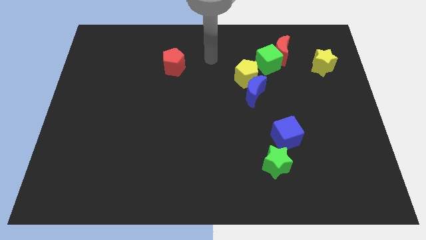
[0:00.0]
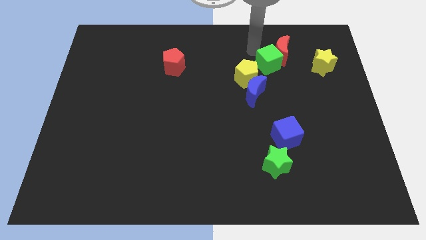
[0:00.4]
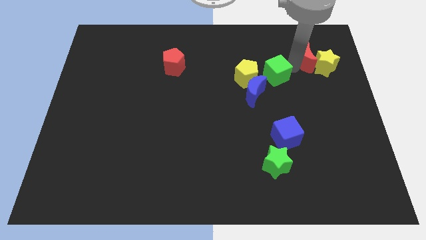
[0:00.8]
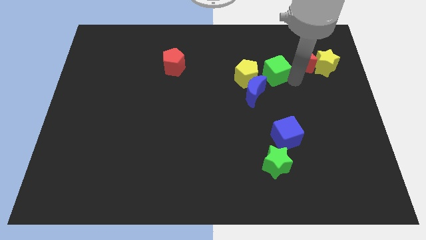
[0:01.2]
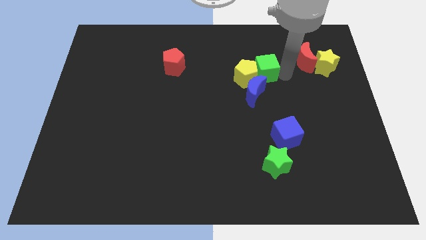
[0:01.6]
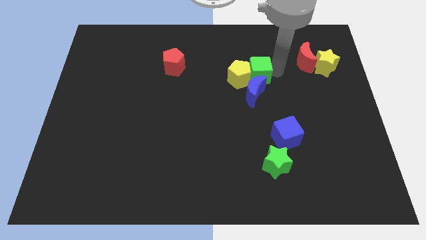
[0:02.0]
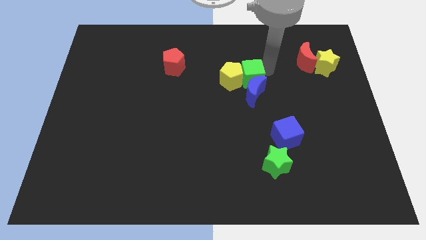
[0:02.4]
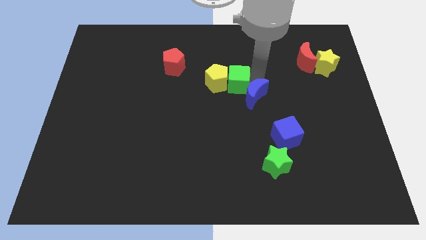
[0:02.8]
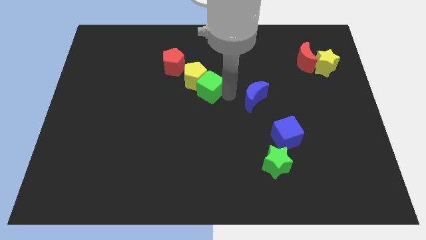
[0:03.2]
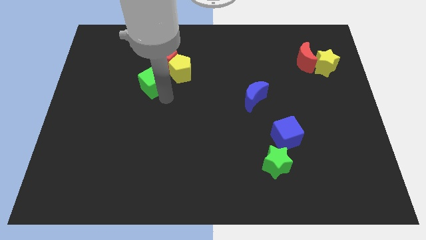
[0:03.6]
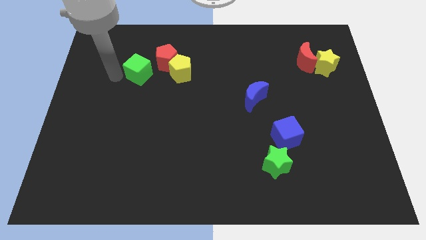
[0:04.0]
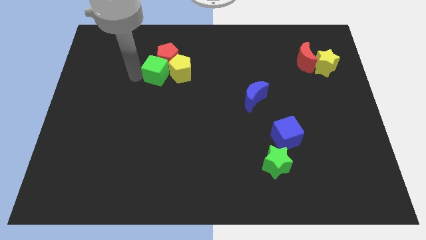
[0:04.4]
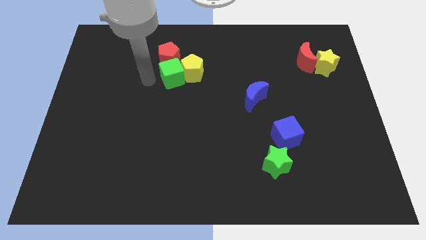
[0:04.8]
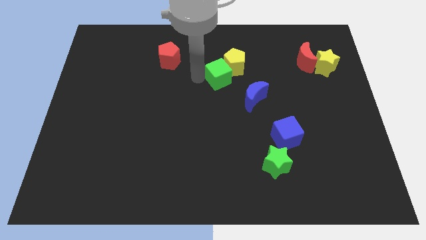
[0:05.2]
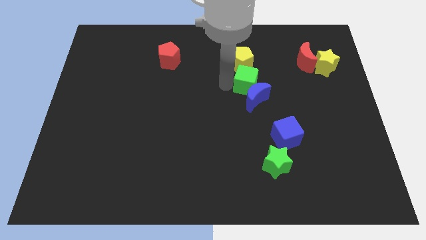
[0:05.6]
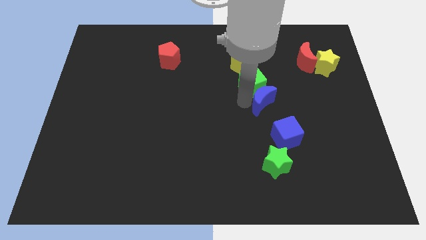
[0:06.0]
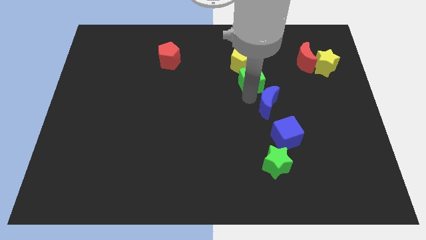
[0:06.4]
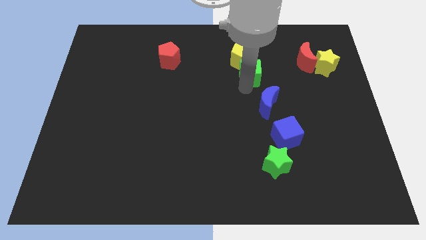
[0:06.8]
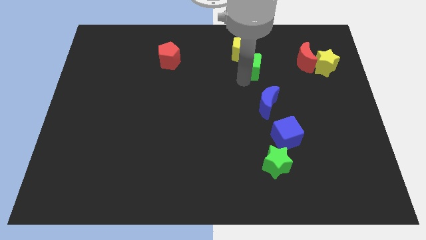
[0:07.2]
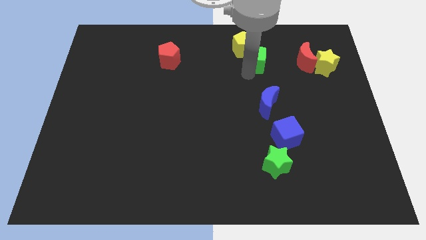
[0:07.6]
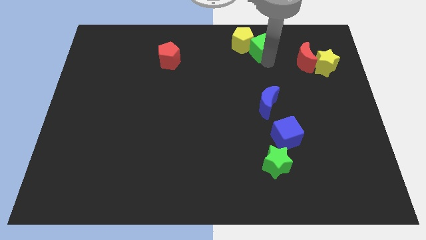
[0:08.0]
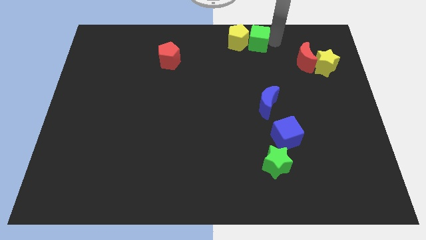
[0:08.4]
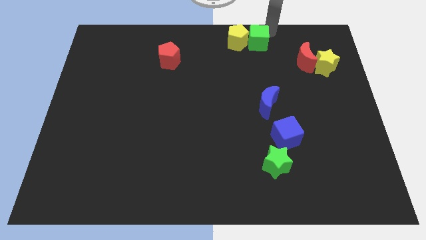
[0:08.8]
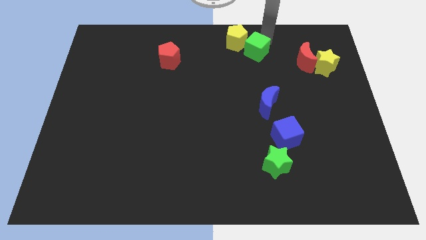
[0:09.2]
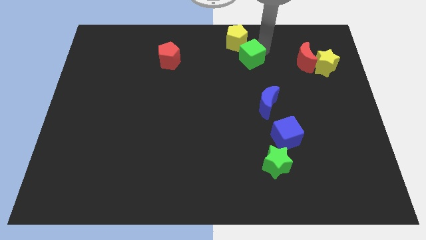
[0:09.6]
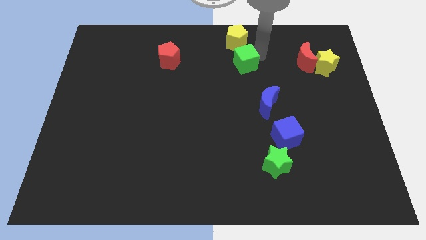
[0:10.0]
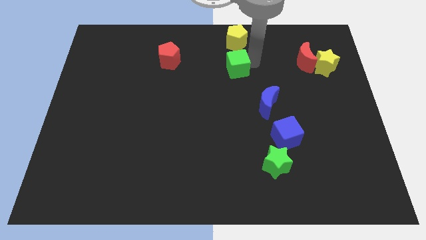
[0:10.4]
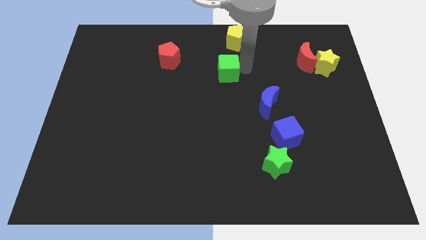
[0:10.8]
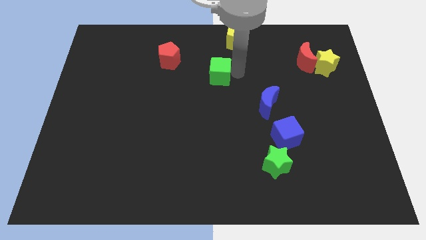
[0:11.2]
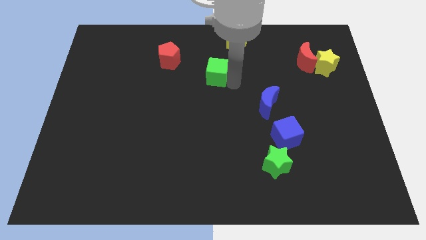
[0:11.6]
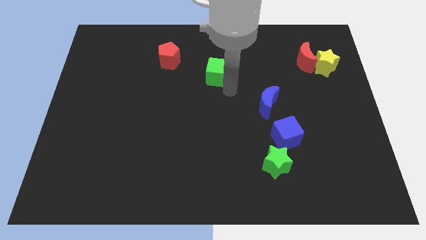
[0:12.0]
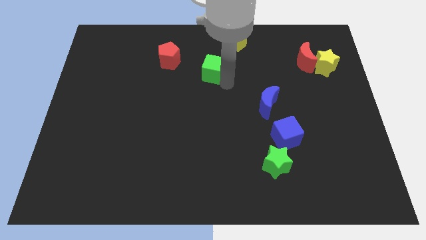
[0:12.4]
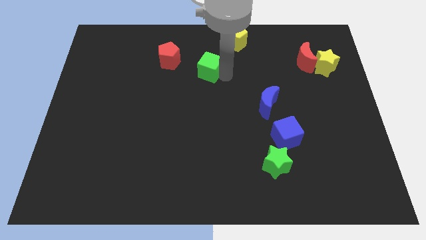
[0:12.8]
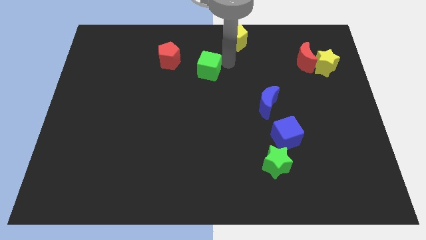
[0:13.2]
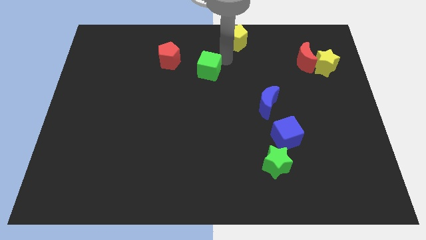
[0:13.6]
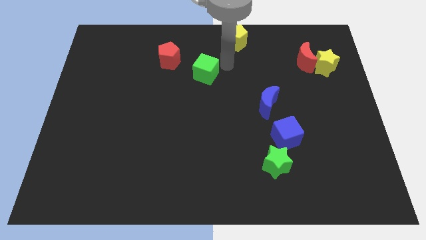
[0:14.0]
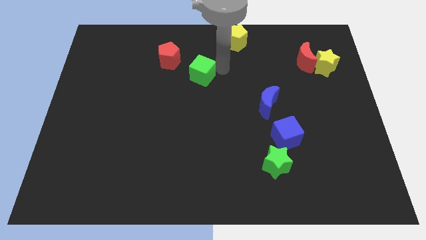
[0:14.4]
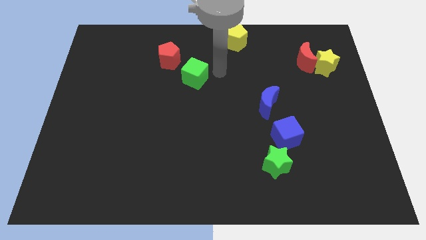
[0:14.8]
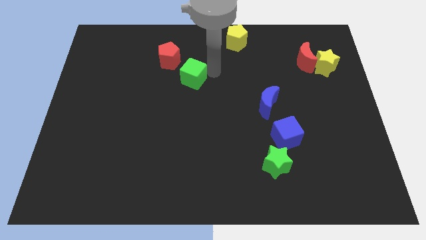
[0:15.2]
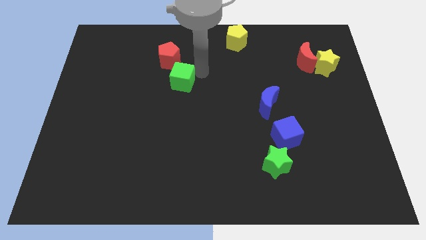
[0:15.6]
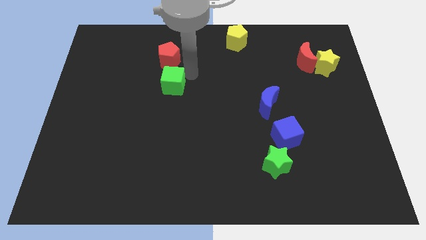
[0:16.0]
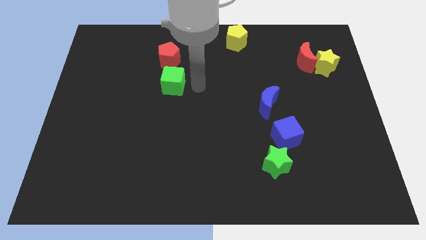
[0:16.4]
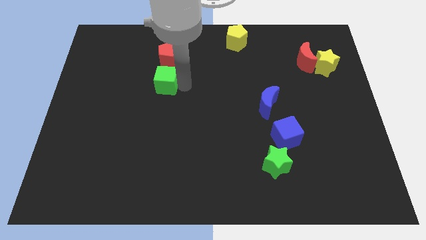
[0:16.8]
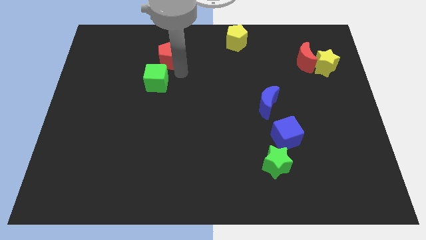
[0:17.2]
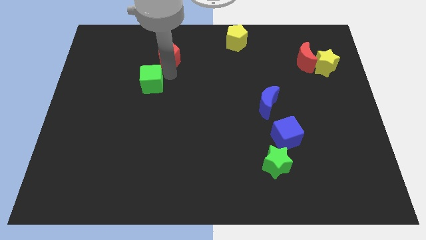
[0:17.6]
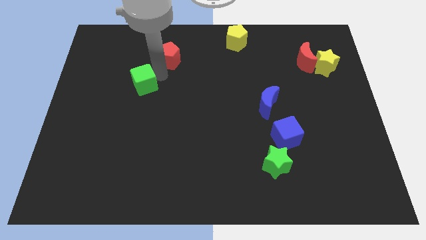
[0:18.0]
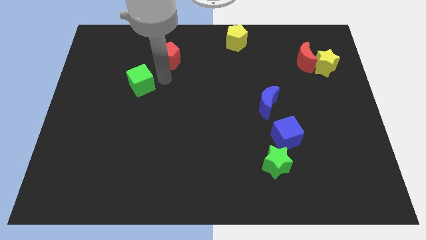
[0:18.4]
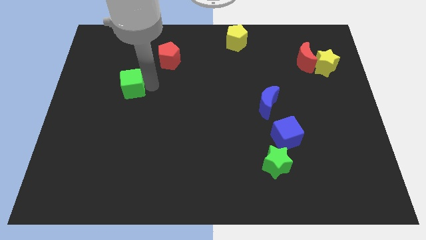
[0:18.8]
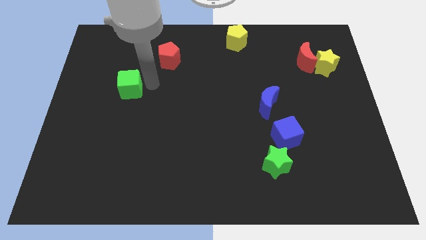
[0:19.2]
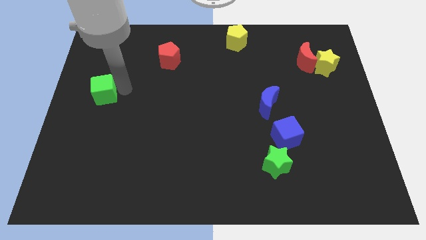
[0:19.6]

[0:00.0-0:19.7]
push the green cube to the center left

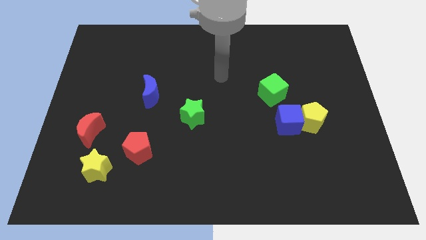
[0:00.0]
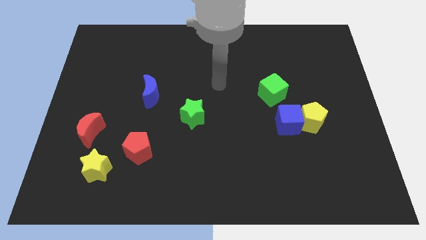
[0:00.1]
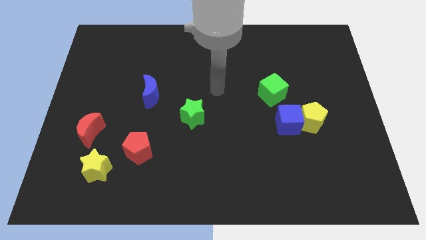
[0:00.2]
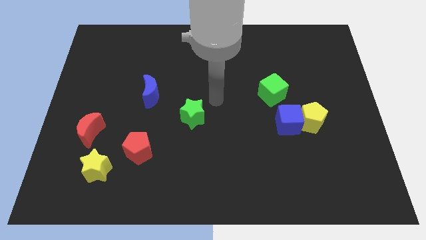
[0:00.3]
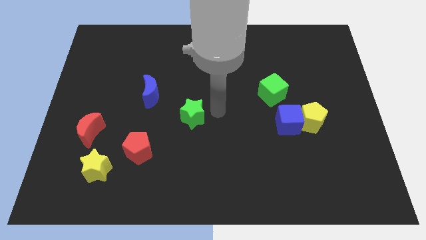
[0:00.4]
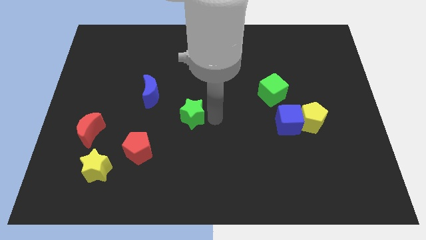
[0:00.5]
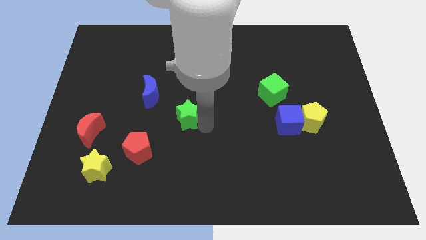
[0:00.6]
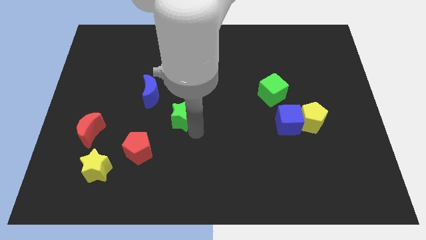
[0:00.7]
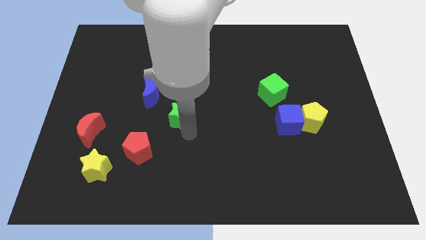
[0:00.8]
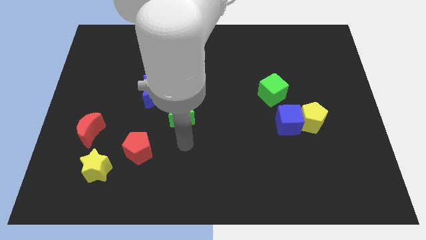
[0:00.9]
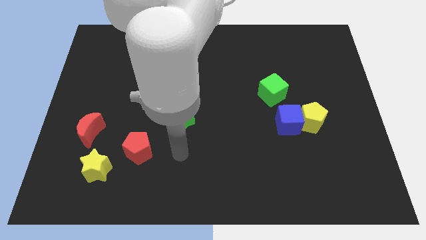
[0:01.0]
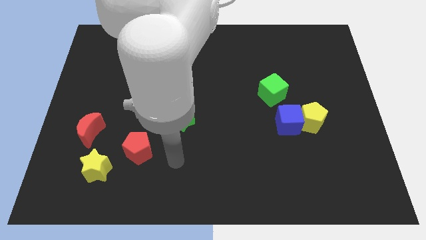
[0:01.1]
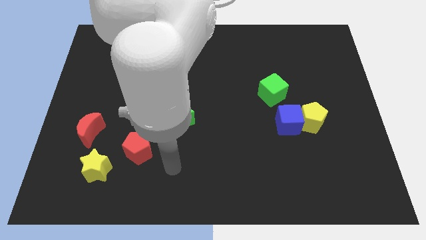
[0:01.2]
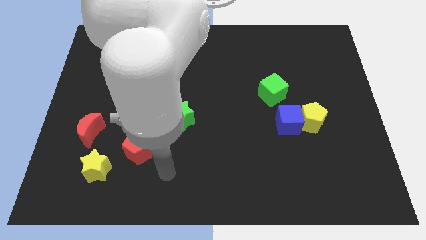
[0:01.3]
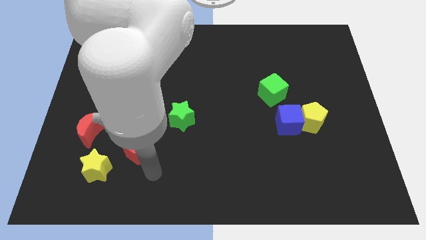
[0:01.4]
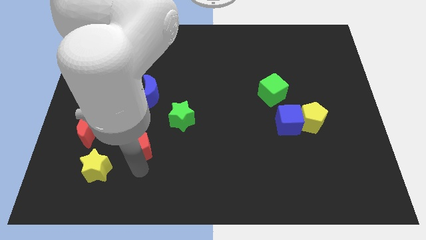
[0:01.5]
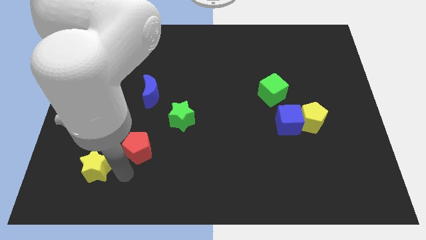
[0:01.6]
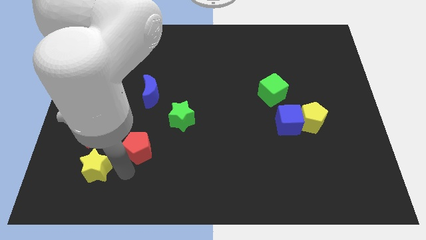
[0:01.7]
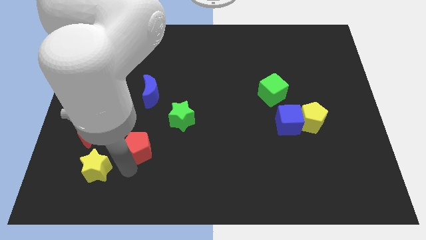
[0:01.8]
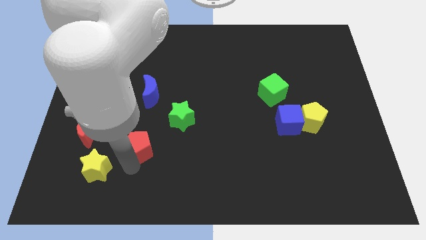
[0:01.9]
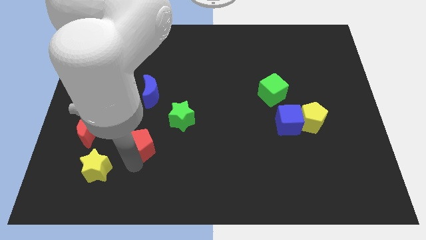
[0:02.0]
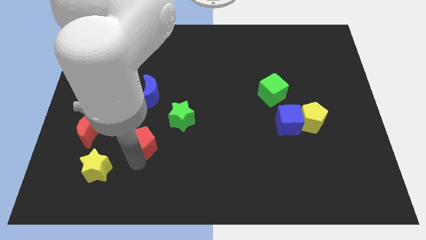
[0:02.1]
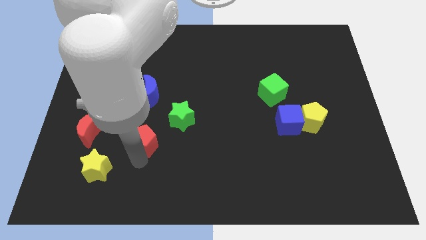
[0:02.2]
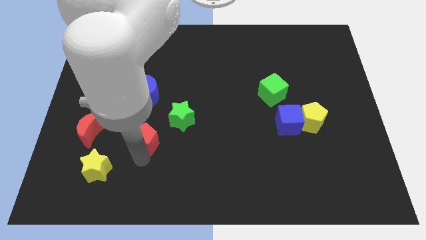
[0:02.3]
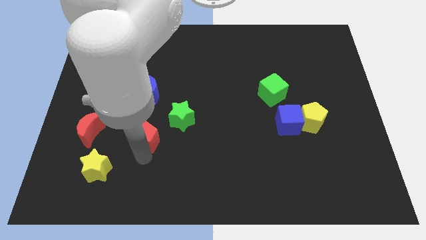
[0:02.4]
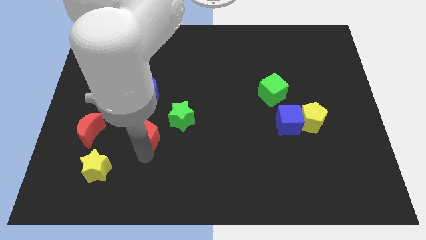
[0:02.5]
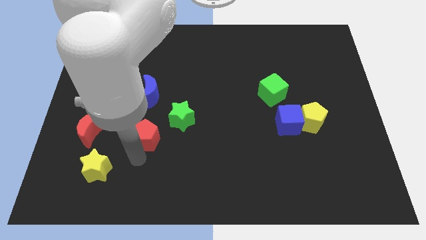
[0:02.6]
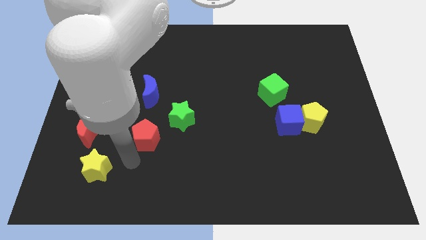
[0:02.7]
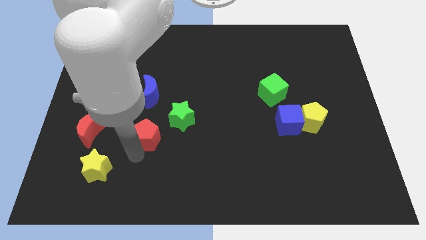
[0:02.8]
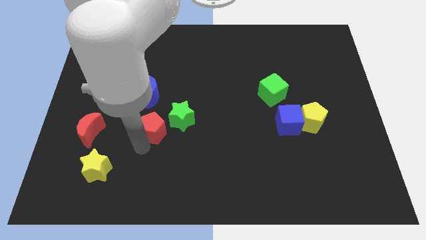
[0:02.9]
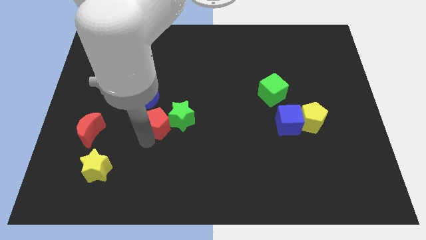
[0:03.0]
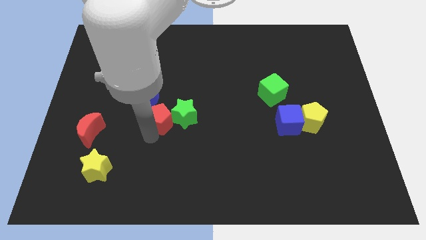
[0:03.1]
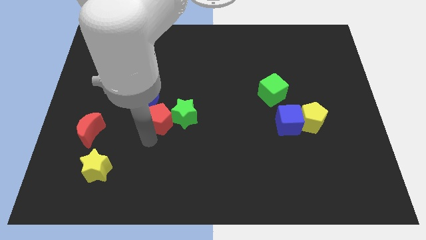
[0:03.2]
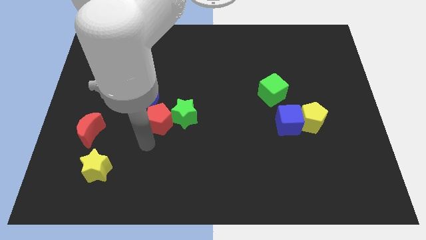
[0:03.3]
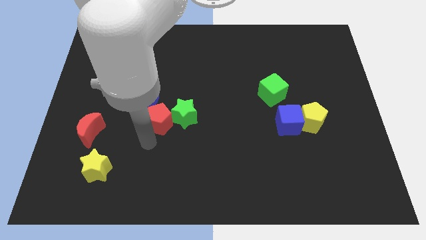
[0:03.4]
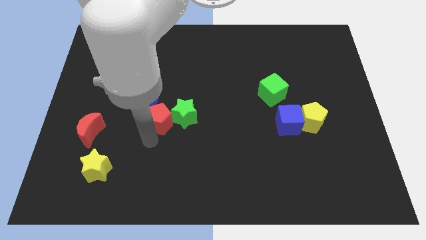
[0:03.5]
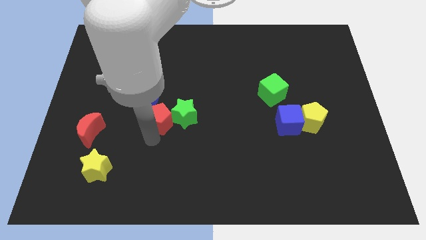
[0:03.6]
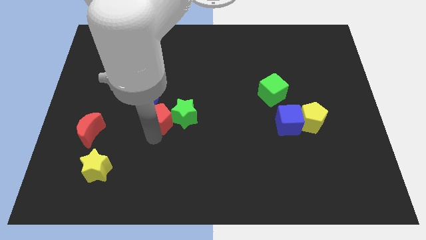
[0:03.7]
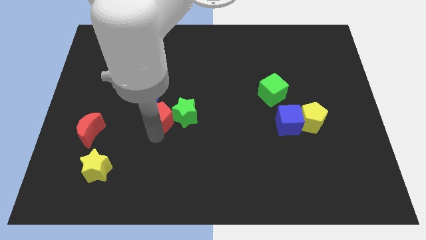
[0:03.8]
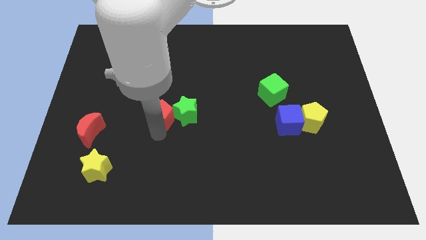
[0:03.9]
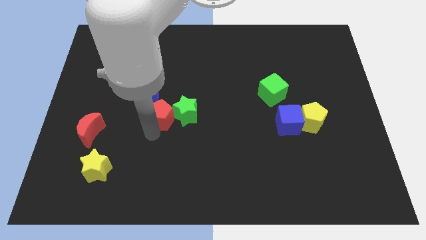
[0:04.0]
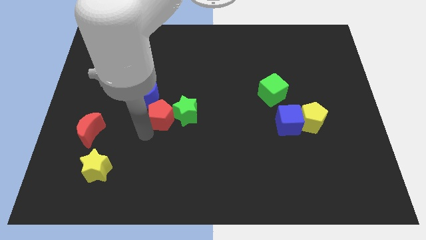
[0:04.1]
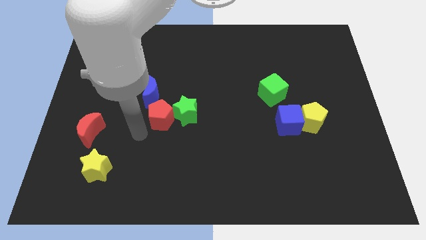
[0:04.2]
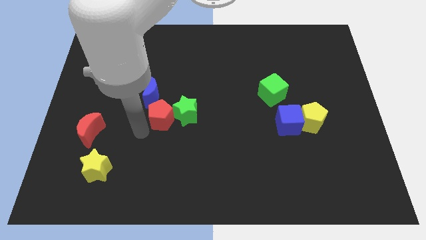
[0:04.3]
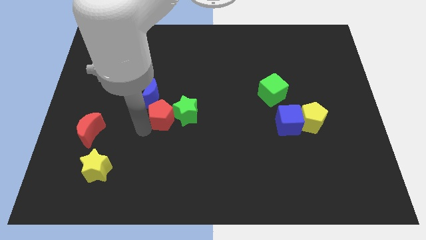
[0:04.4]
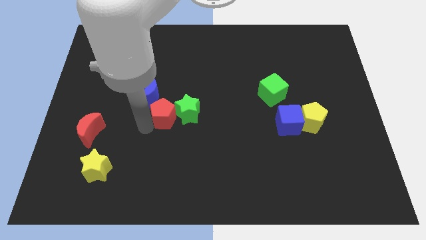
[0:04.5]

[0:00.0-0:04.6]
push the red pentagon to the middle
